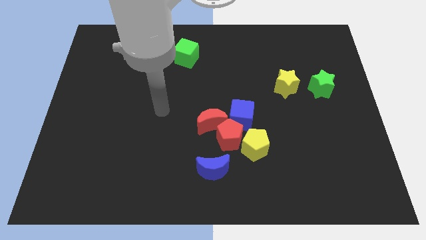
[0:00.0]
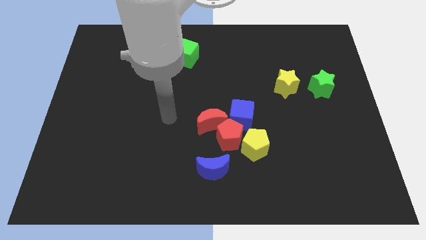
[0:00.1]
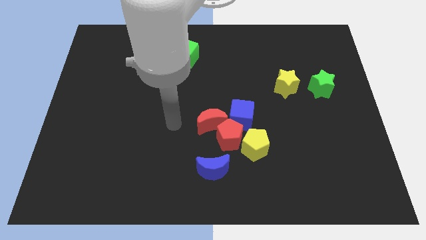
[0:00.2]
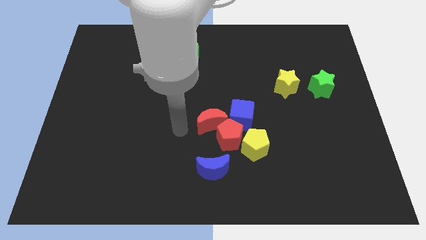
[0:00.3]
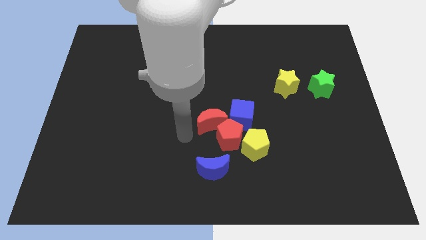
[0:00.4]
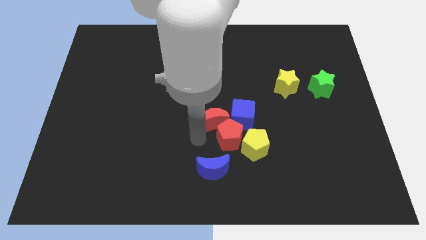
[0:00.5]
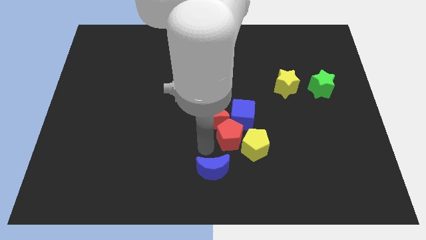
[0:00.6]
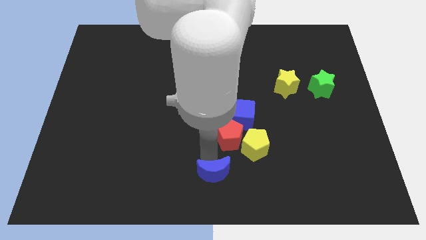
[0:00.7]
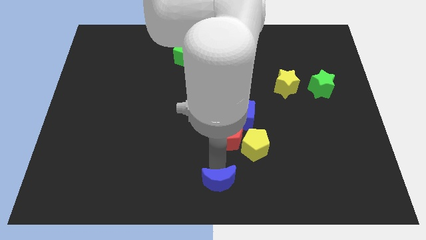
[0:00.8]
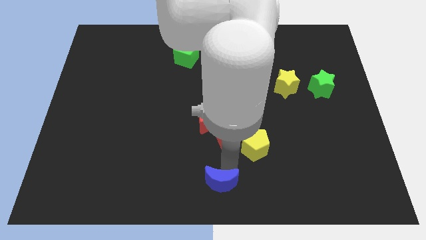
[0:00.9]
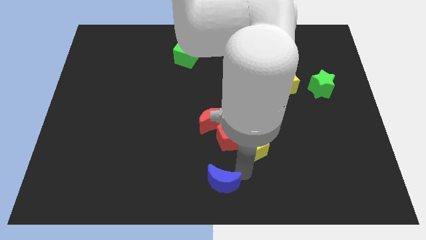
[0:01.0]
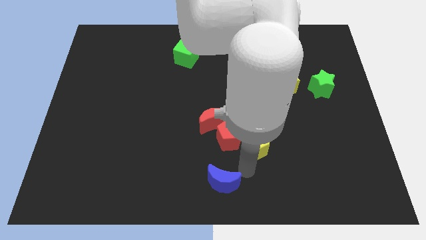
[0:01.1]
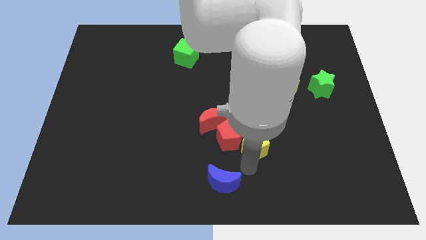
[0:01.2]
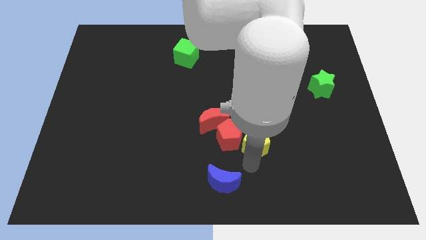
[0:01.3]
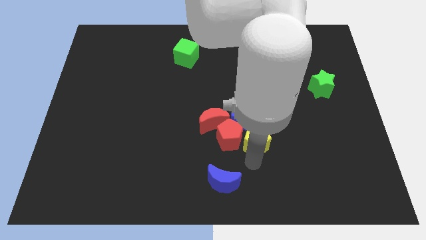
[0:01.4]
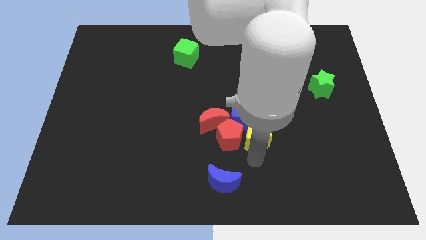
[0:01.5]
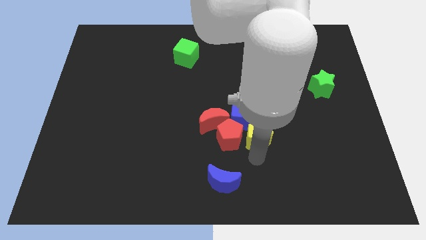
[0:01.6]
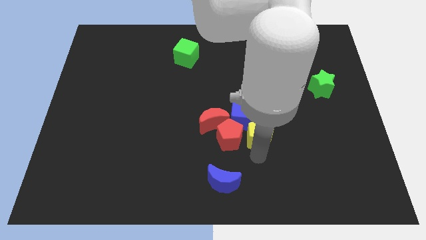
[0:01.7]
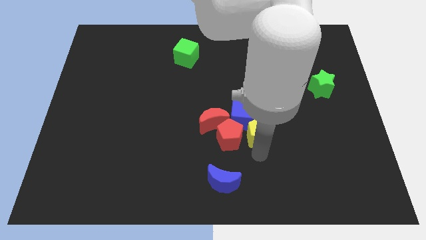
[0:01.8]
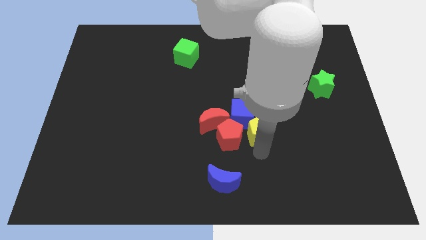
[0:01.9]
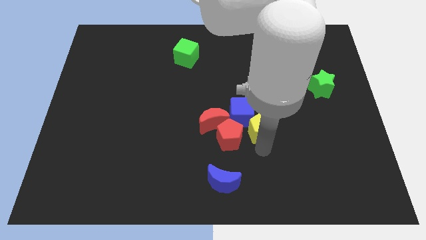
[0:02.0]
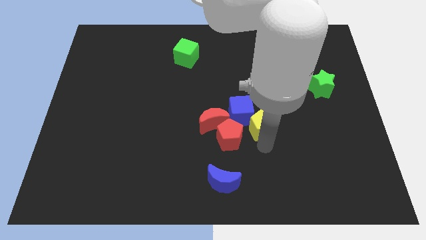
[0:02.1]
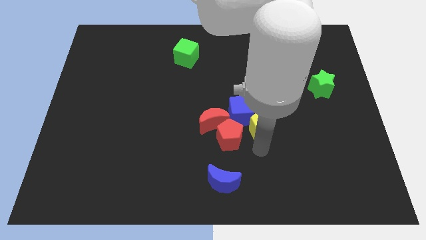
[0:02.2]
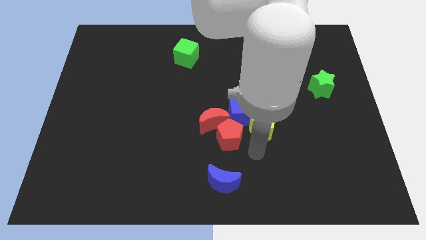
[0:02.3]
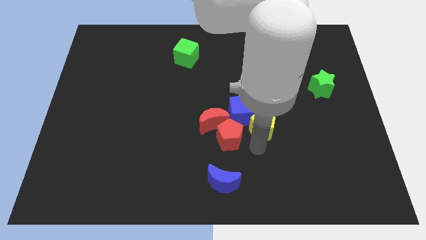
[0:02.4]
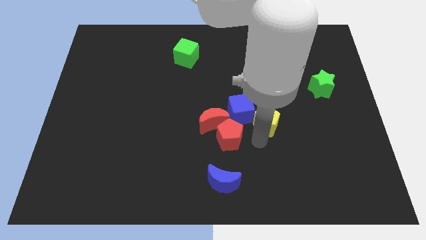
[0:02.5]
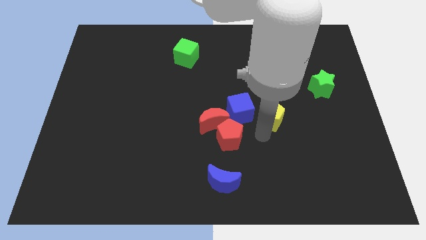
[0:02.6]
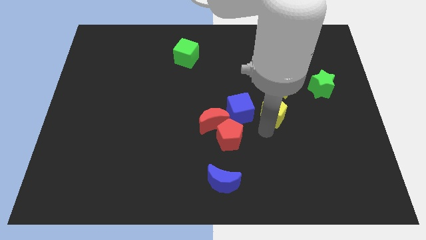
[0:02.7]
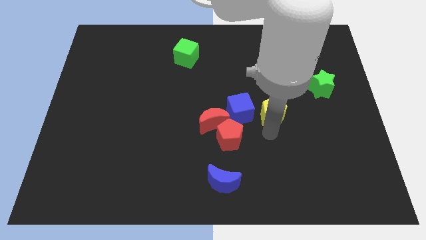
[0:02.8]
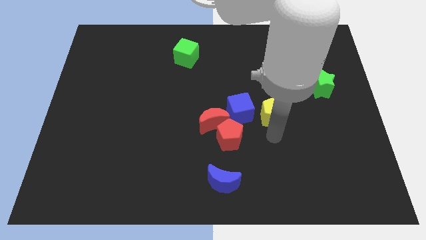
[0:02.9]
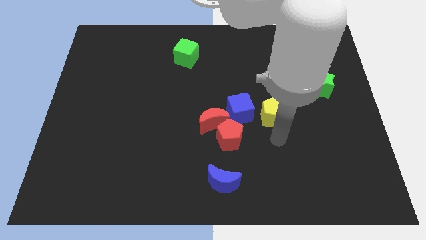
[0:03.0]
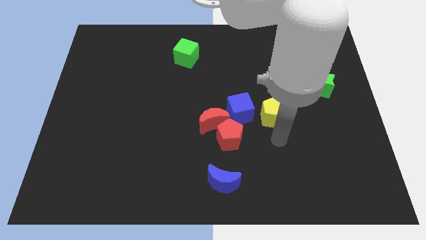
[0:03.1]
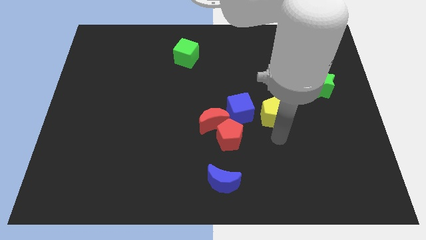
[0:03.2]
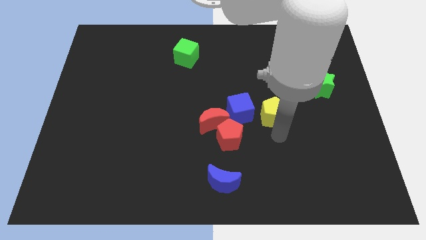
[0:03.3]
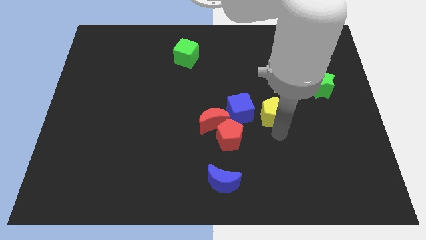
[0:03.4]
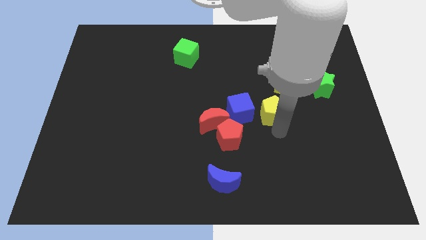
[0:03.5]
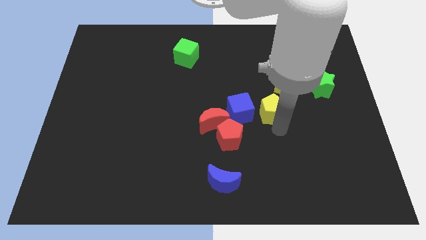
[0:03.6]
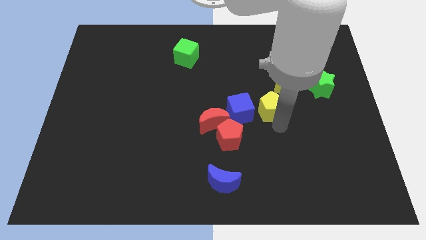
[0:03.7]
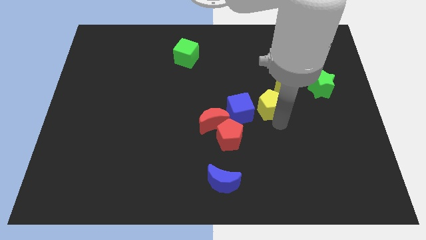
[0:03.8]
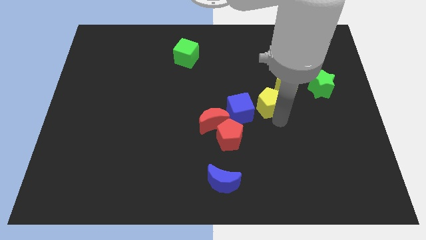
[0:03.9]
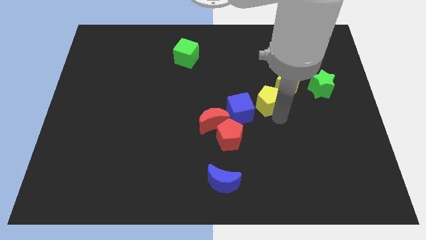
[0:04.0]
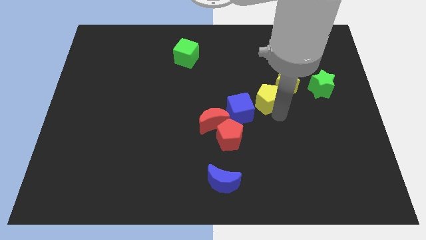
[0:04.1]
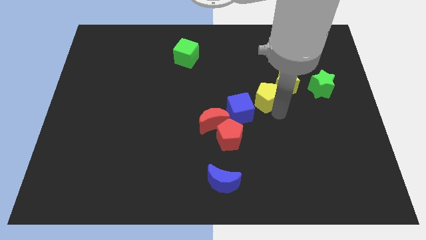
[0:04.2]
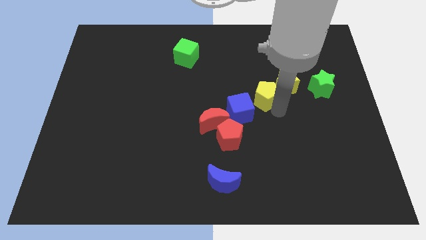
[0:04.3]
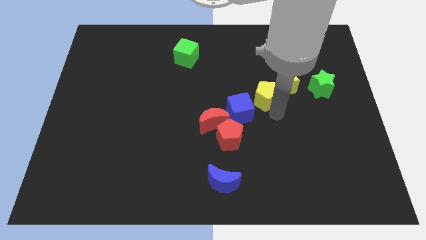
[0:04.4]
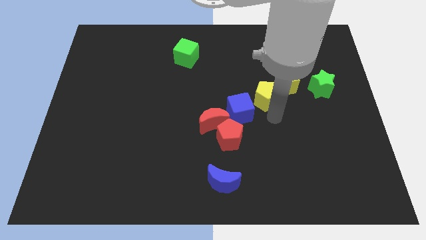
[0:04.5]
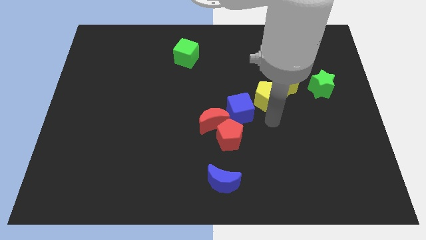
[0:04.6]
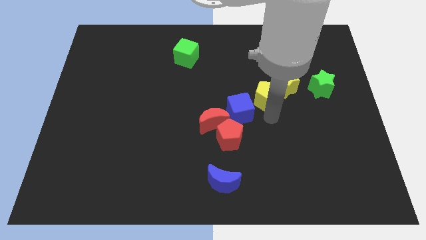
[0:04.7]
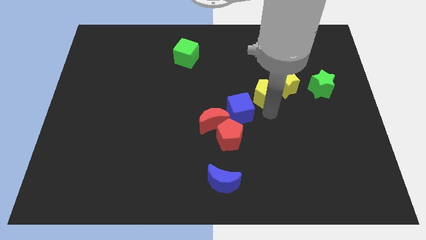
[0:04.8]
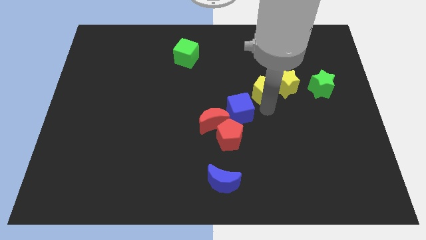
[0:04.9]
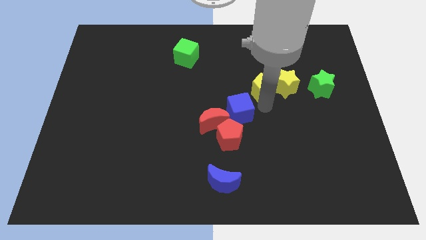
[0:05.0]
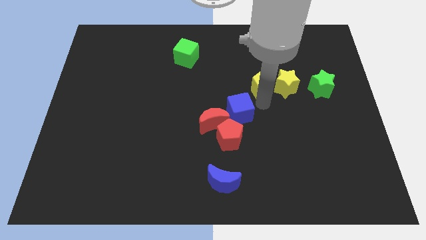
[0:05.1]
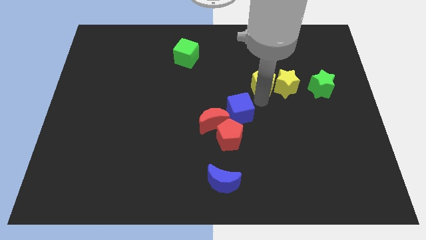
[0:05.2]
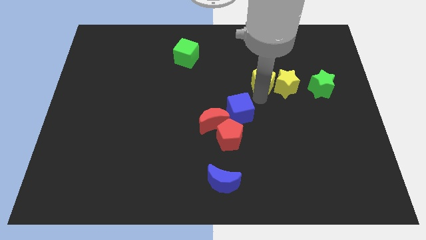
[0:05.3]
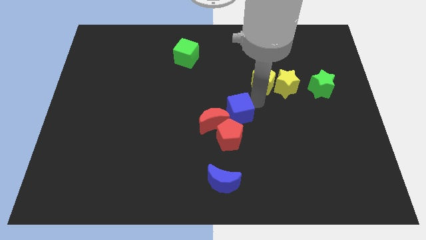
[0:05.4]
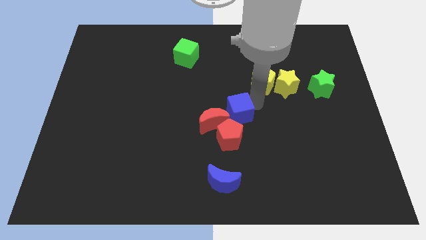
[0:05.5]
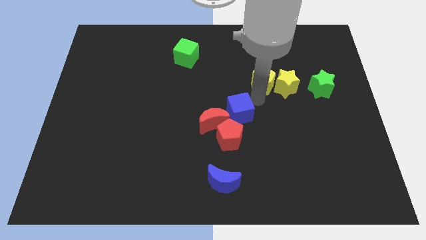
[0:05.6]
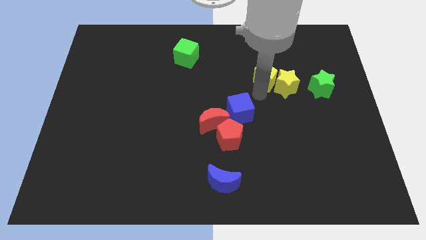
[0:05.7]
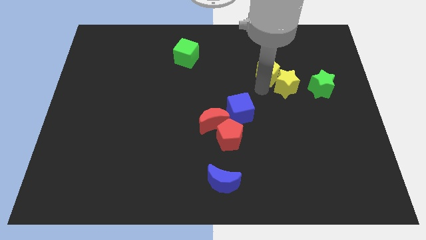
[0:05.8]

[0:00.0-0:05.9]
move the yellow pentagon to the top of the yellow star

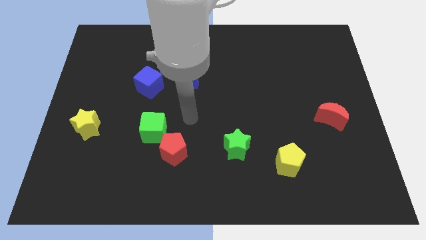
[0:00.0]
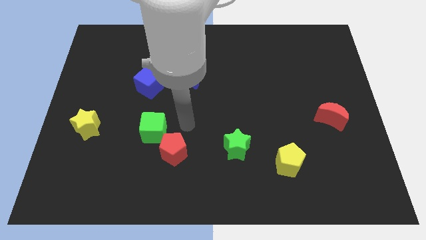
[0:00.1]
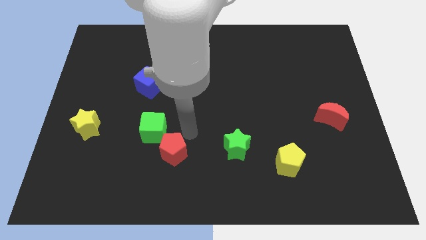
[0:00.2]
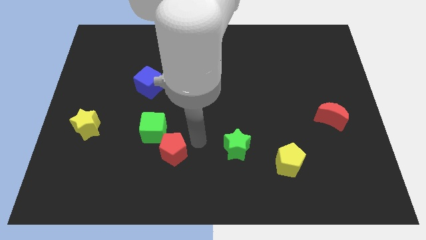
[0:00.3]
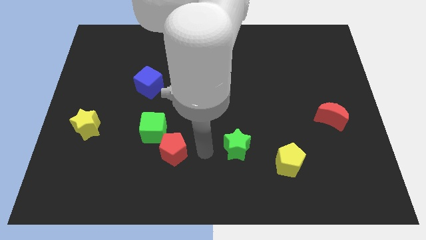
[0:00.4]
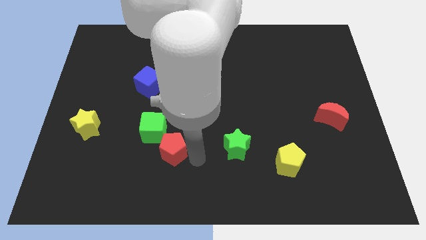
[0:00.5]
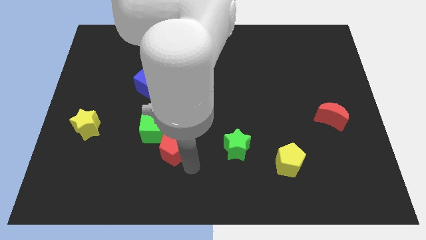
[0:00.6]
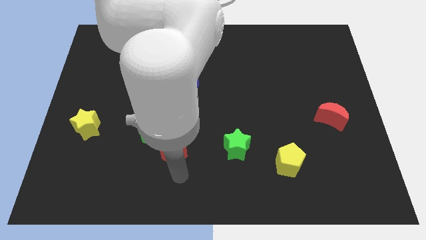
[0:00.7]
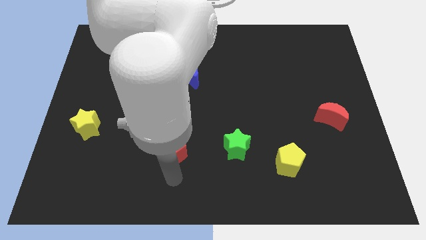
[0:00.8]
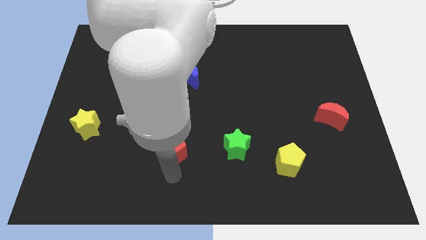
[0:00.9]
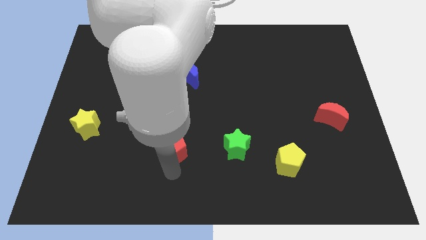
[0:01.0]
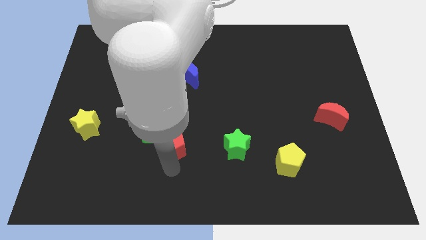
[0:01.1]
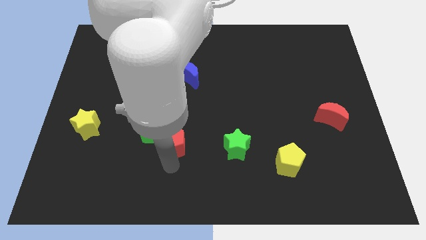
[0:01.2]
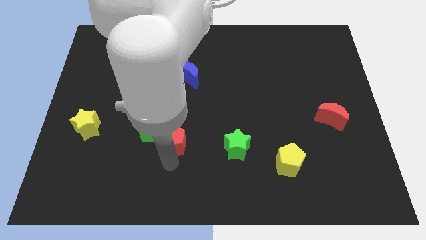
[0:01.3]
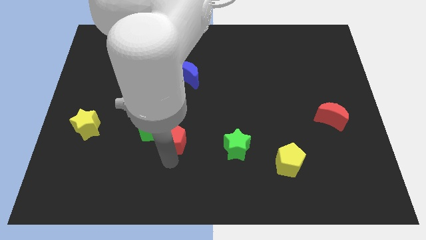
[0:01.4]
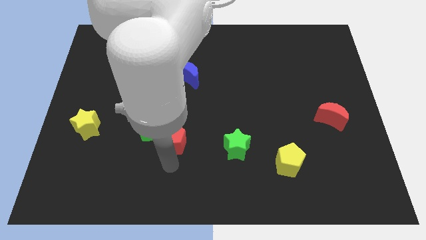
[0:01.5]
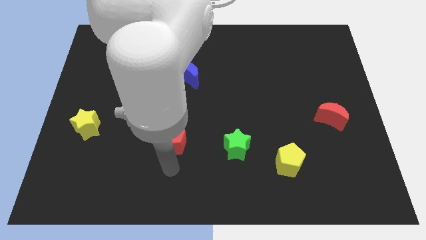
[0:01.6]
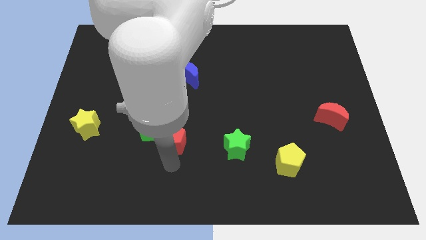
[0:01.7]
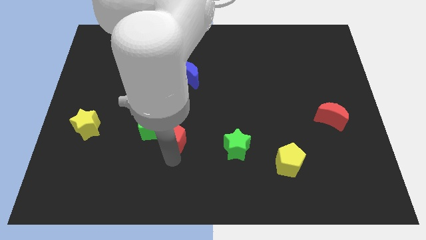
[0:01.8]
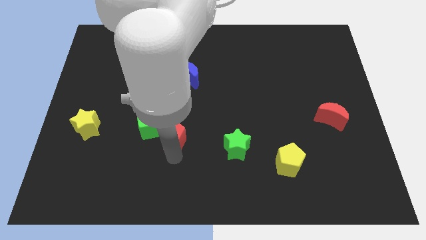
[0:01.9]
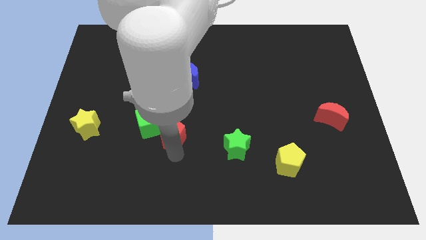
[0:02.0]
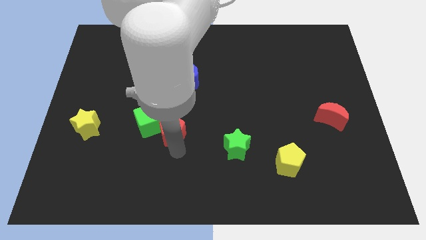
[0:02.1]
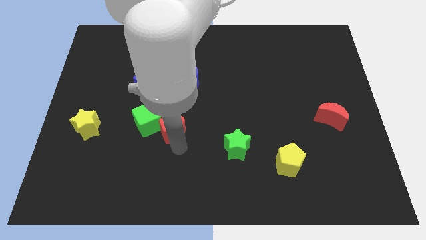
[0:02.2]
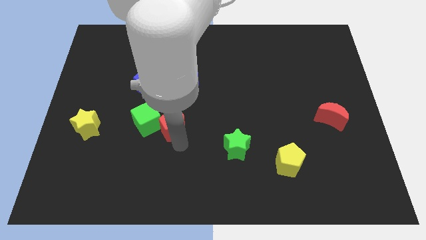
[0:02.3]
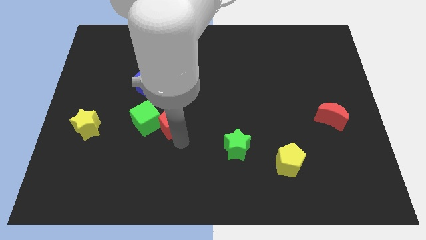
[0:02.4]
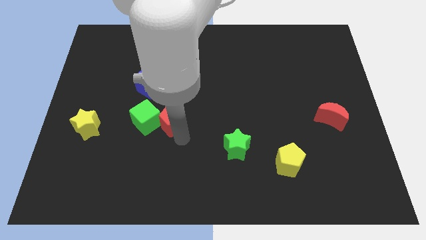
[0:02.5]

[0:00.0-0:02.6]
push the red pentagon to the top right of the green cube
